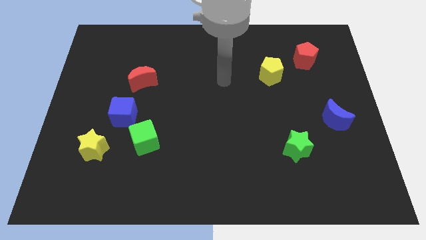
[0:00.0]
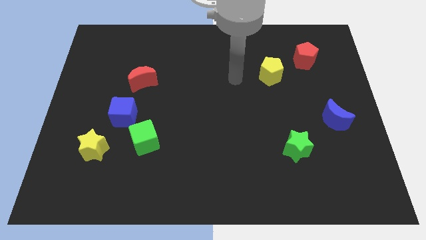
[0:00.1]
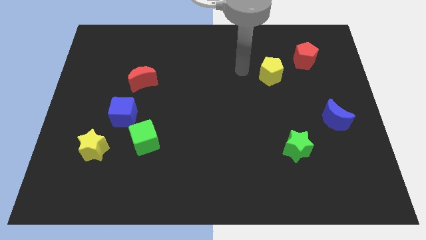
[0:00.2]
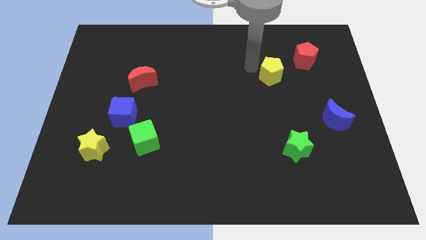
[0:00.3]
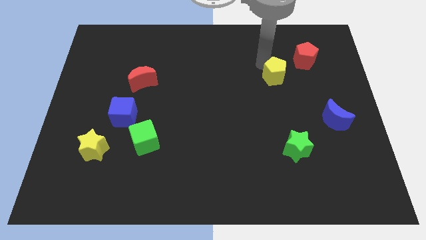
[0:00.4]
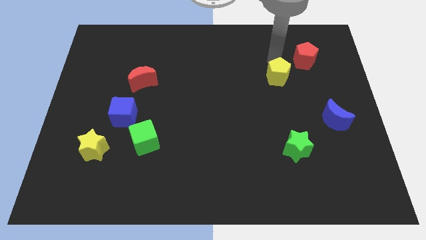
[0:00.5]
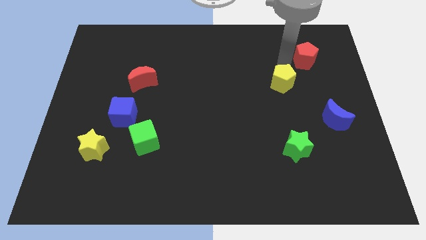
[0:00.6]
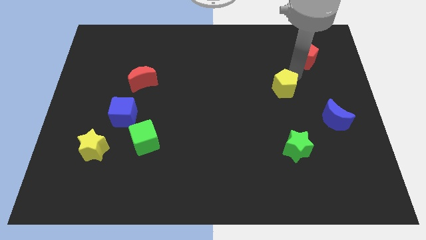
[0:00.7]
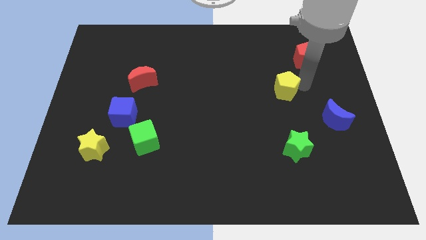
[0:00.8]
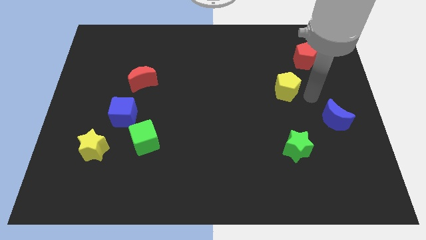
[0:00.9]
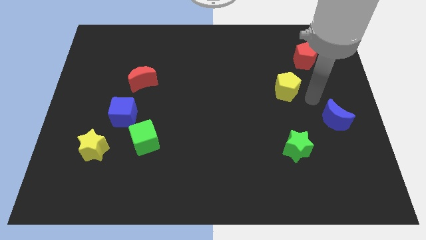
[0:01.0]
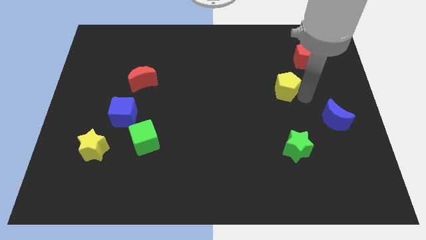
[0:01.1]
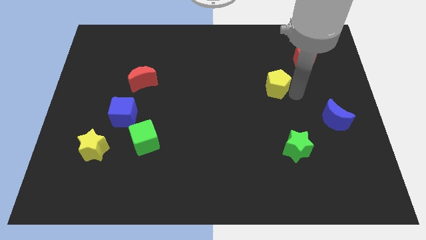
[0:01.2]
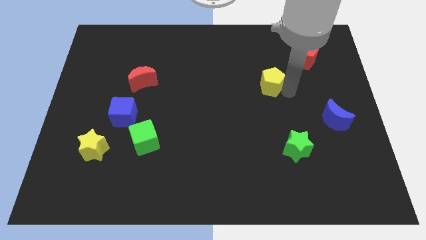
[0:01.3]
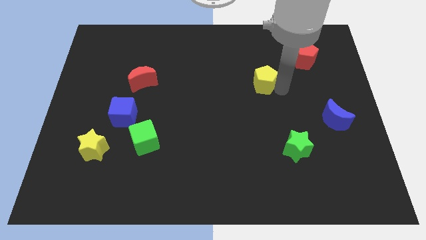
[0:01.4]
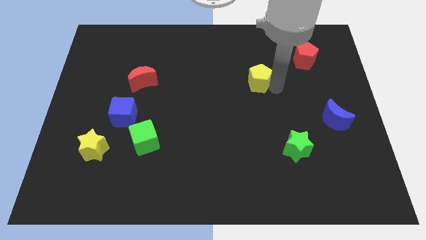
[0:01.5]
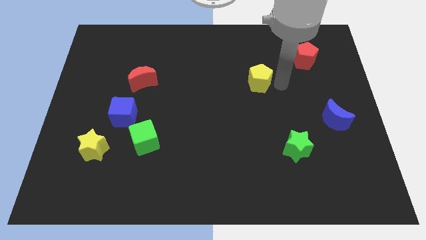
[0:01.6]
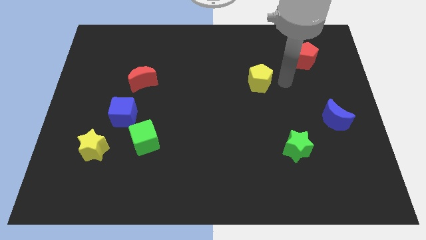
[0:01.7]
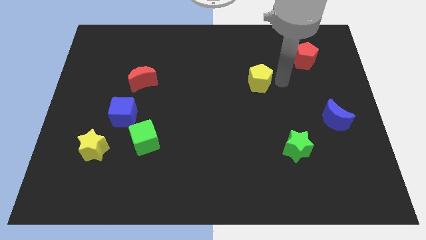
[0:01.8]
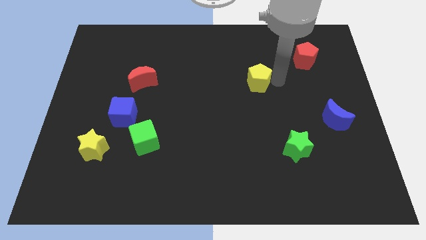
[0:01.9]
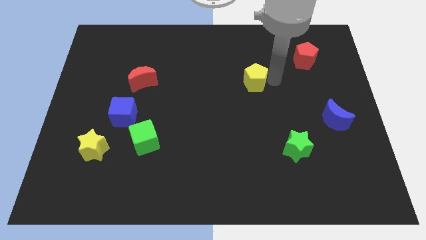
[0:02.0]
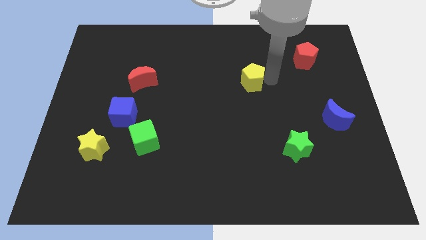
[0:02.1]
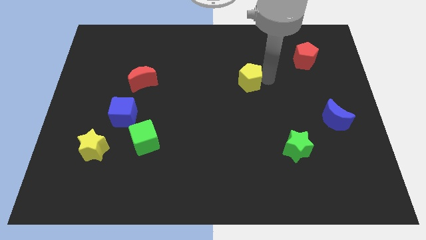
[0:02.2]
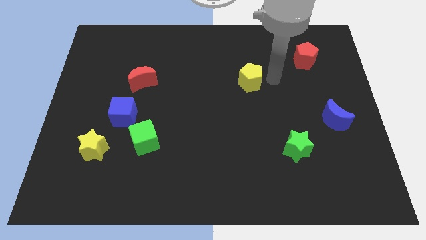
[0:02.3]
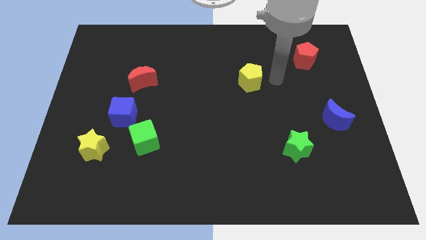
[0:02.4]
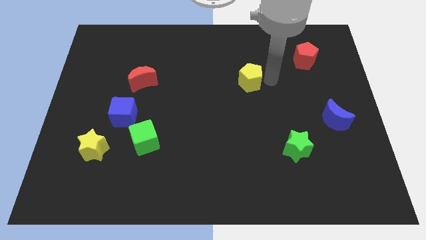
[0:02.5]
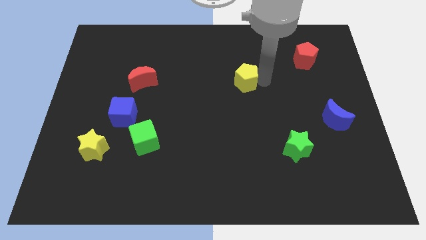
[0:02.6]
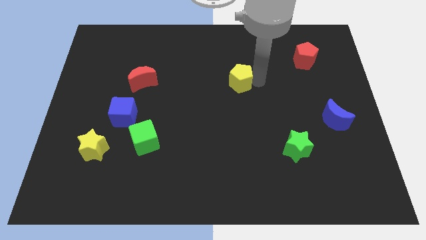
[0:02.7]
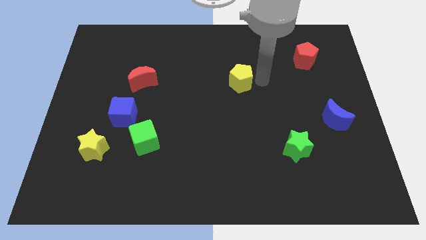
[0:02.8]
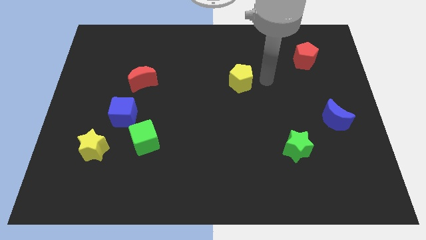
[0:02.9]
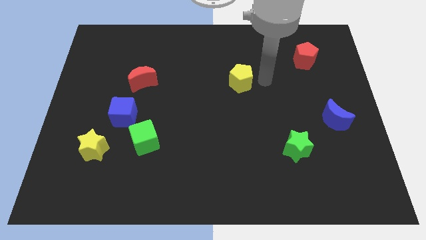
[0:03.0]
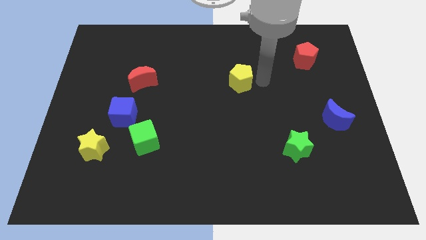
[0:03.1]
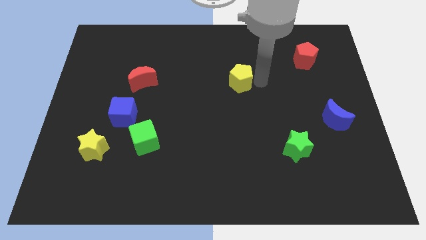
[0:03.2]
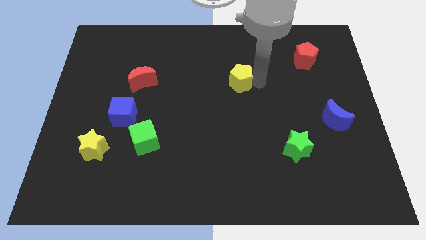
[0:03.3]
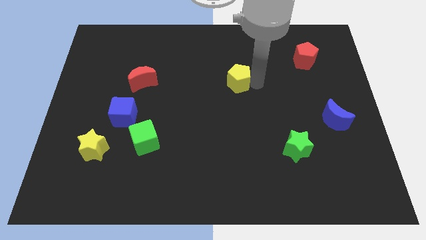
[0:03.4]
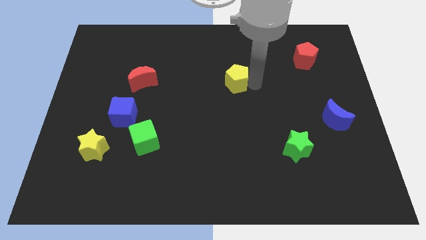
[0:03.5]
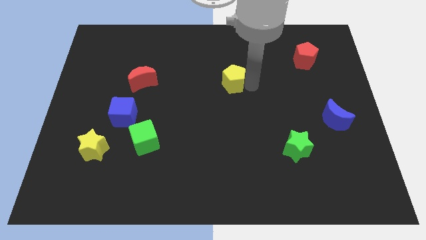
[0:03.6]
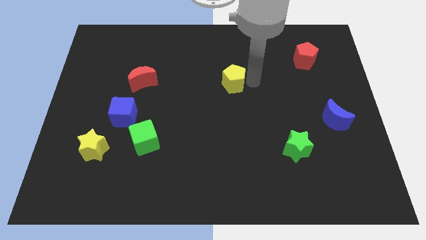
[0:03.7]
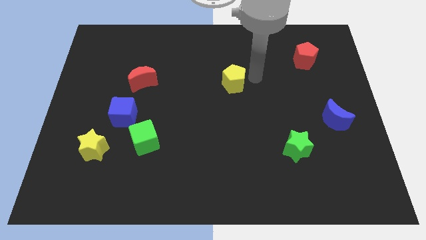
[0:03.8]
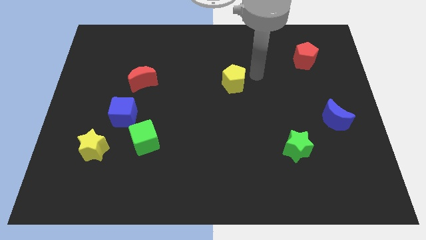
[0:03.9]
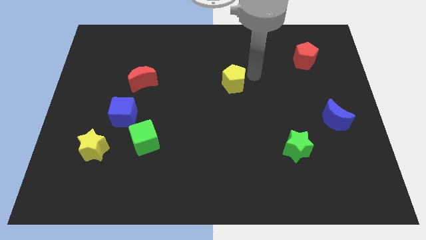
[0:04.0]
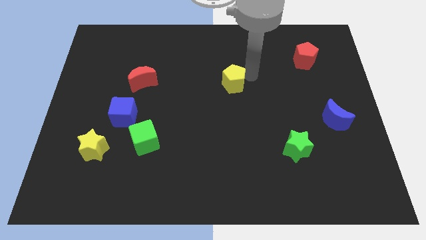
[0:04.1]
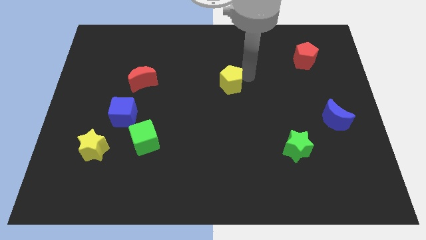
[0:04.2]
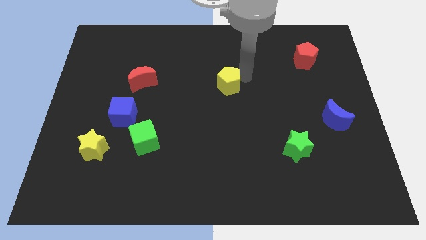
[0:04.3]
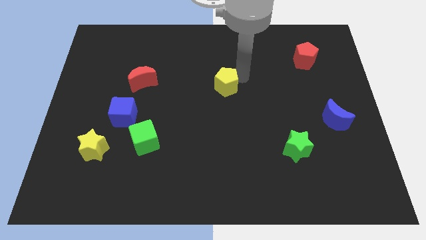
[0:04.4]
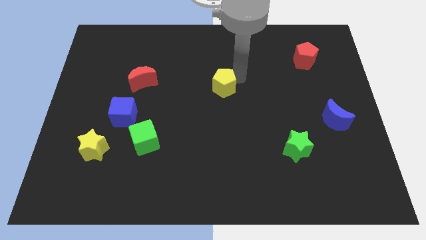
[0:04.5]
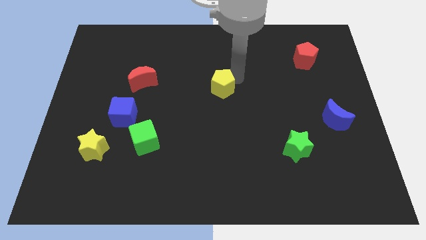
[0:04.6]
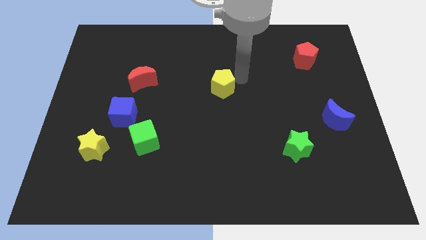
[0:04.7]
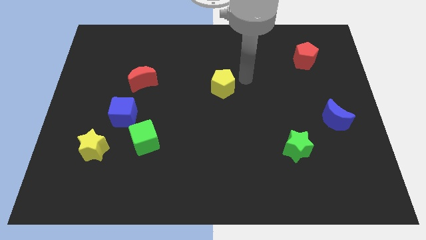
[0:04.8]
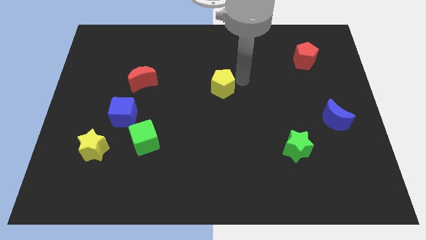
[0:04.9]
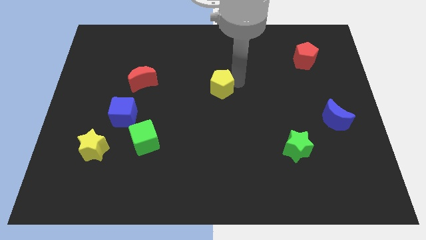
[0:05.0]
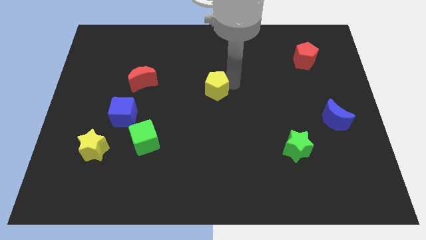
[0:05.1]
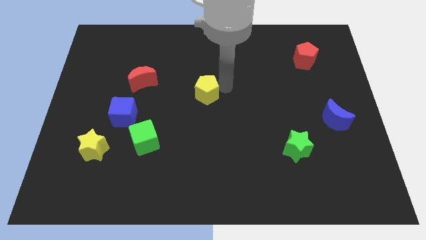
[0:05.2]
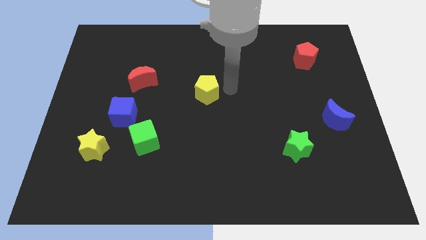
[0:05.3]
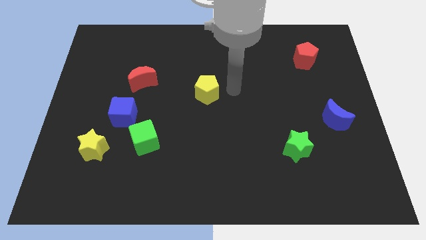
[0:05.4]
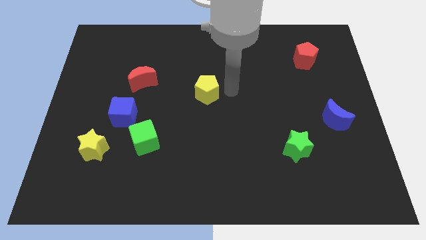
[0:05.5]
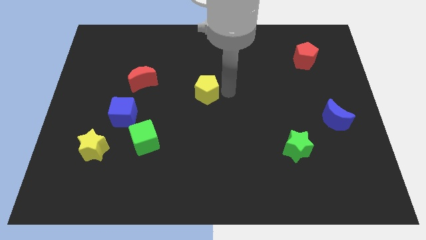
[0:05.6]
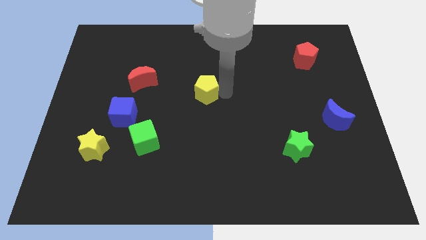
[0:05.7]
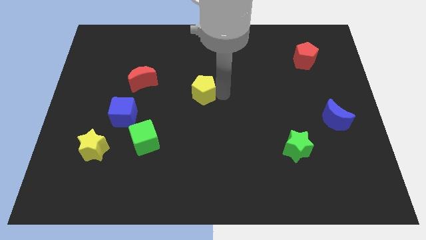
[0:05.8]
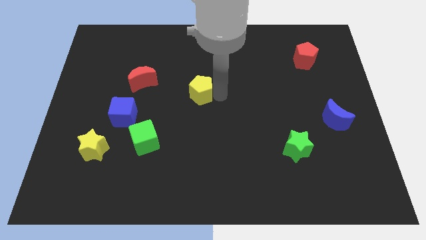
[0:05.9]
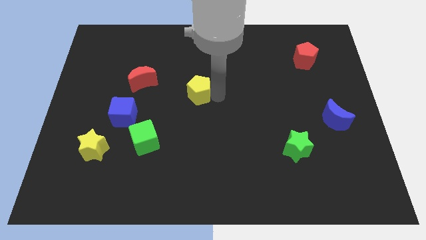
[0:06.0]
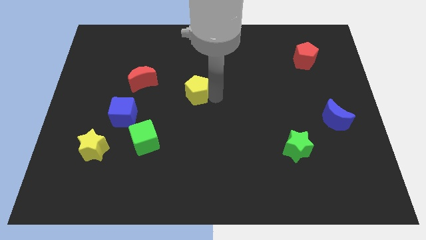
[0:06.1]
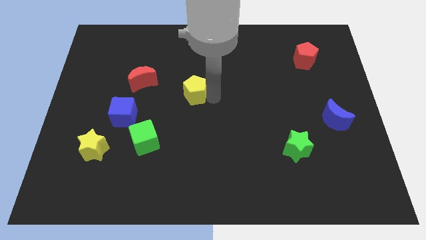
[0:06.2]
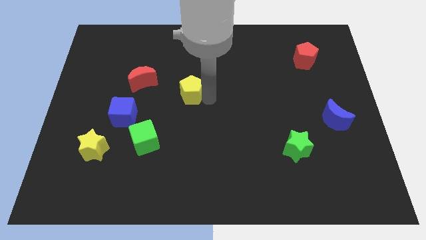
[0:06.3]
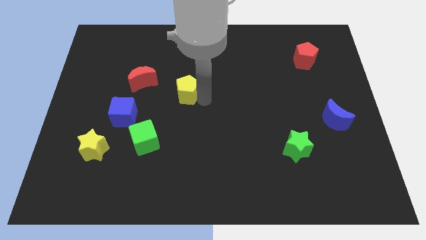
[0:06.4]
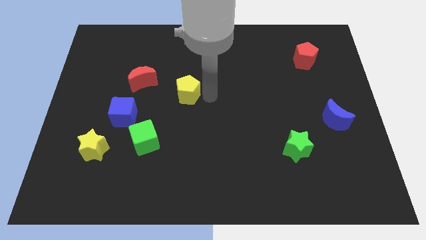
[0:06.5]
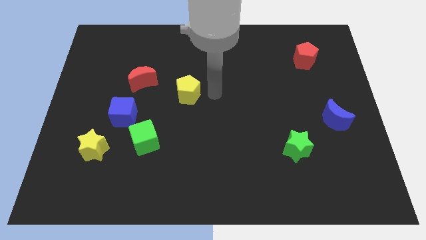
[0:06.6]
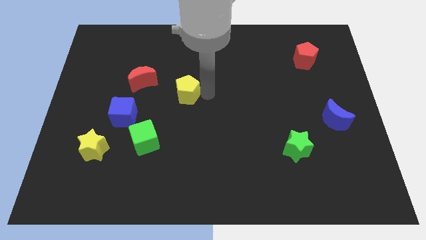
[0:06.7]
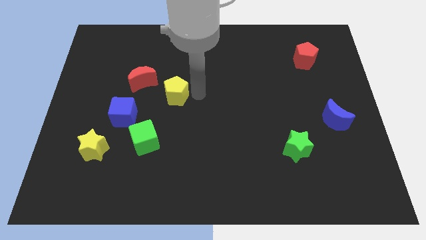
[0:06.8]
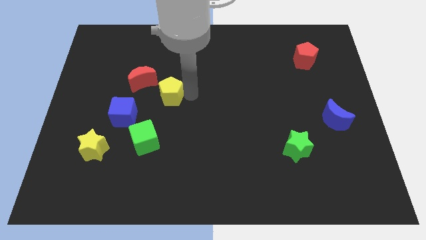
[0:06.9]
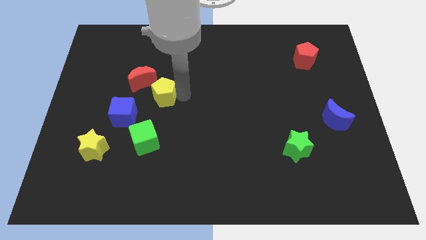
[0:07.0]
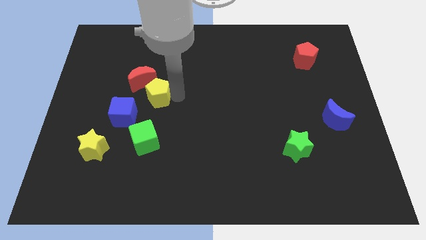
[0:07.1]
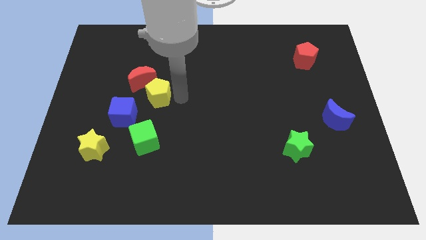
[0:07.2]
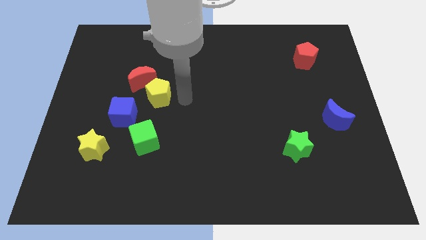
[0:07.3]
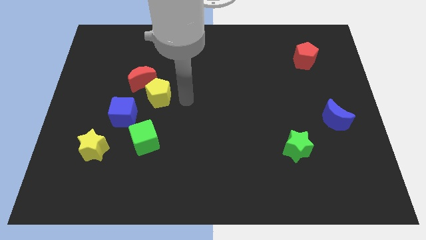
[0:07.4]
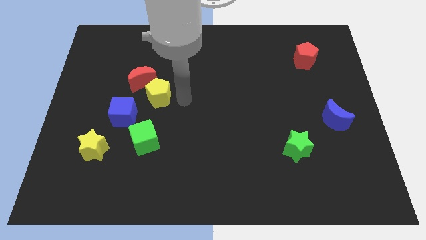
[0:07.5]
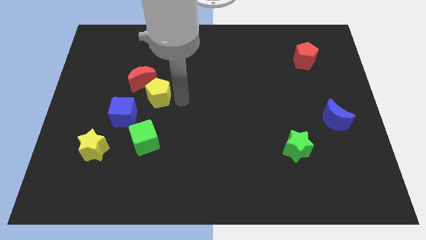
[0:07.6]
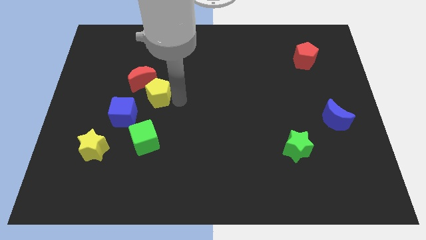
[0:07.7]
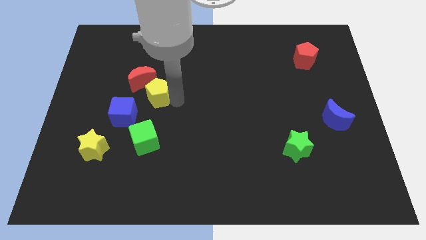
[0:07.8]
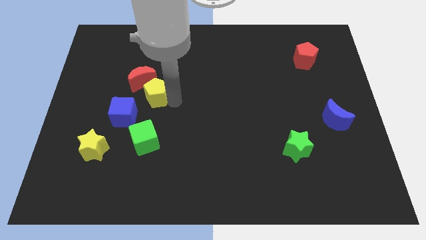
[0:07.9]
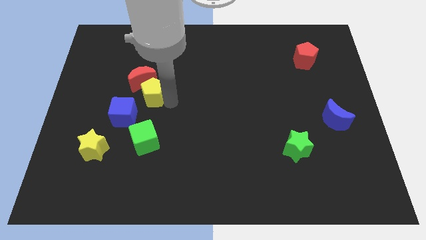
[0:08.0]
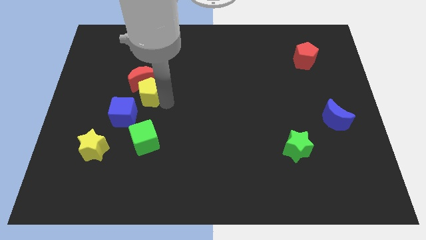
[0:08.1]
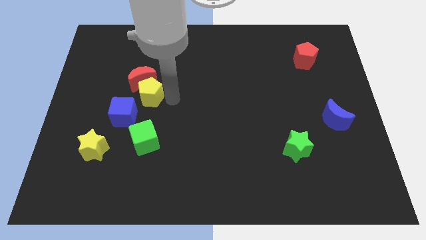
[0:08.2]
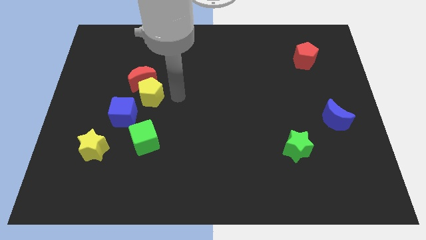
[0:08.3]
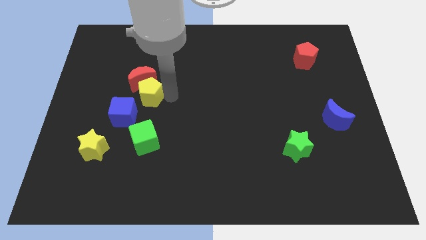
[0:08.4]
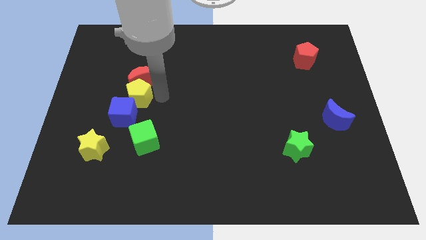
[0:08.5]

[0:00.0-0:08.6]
slide the yellow pentagon to the bottom left of the red moon
